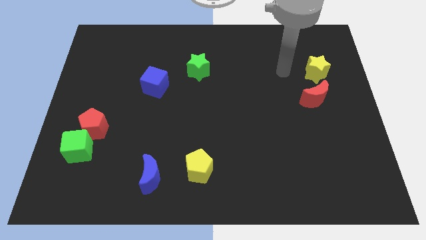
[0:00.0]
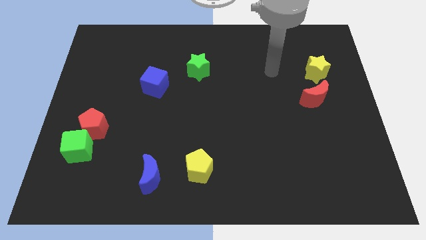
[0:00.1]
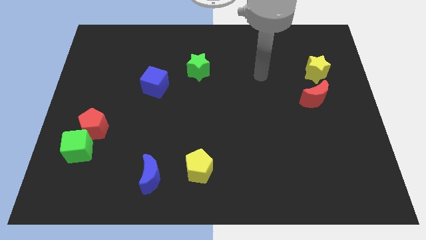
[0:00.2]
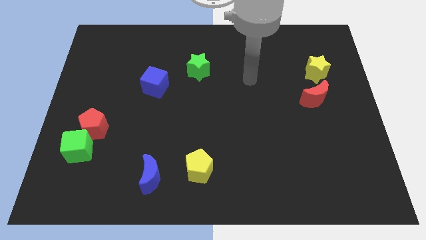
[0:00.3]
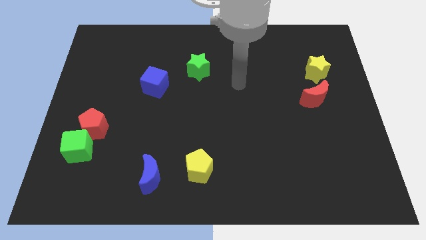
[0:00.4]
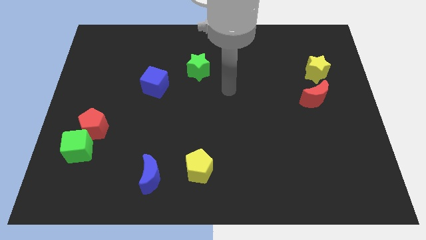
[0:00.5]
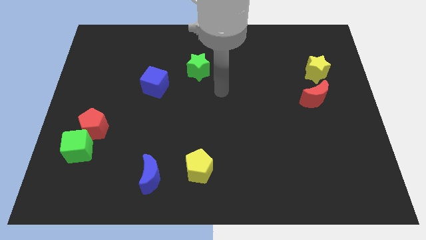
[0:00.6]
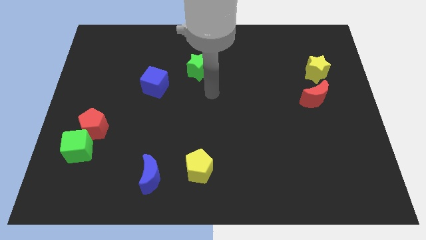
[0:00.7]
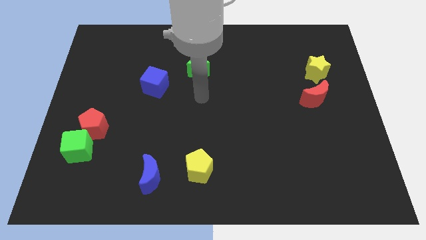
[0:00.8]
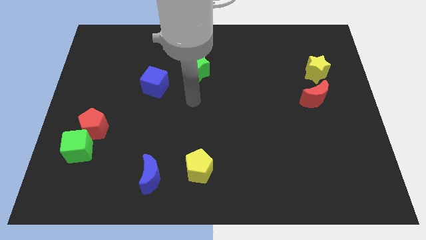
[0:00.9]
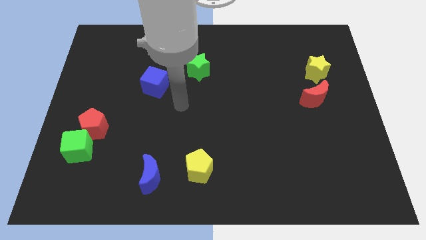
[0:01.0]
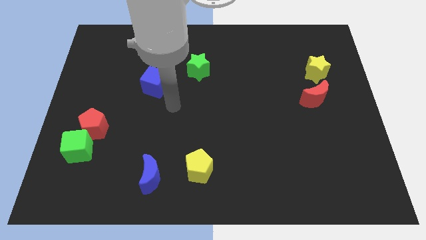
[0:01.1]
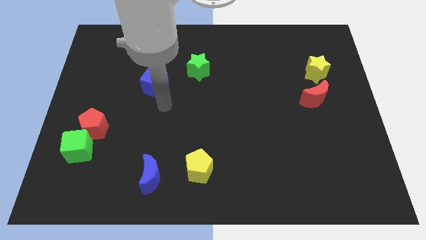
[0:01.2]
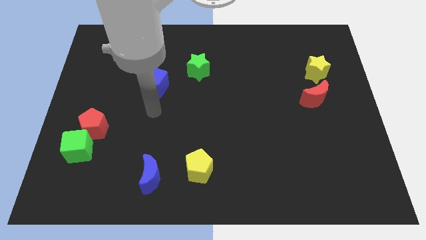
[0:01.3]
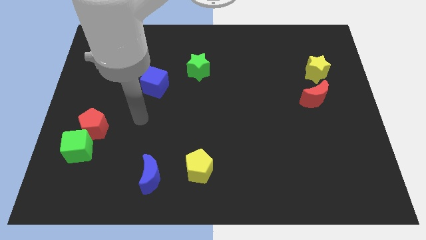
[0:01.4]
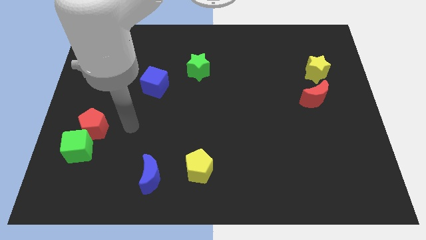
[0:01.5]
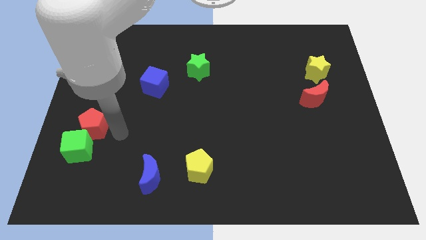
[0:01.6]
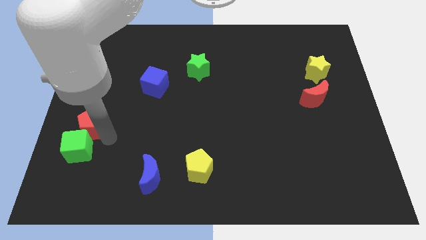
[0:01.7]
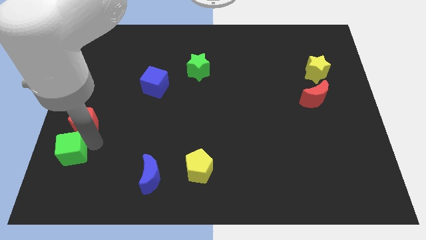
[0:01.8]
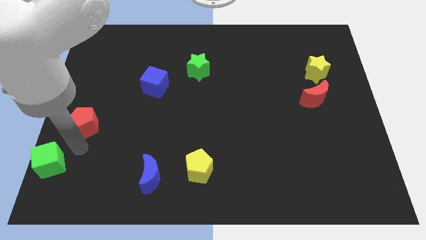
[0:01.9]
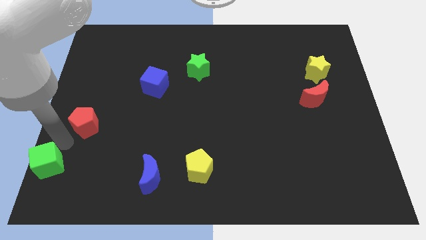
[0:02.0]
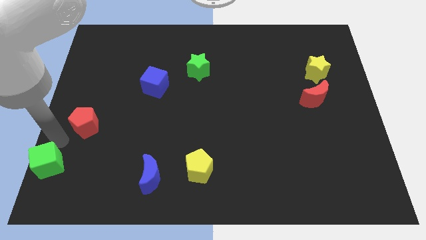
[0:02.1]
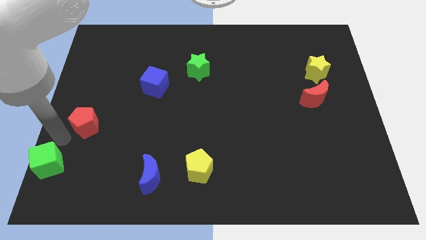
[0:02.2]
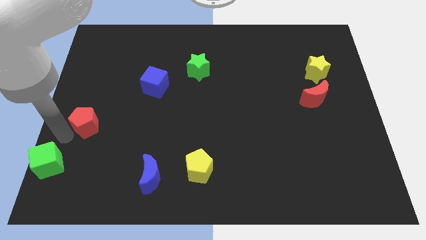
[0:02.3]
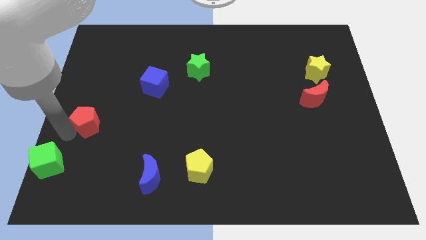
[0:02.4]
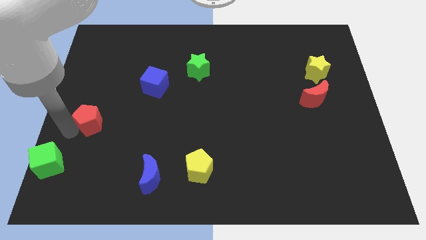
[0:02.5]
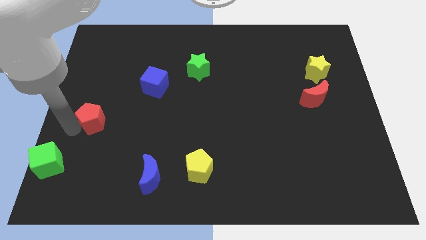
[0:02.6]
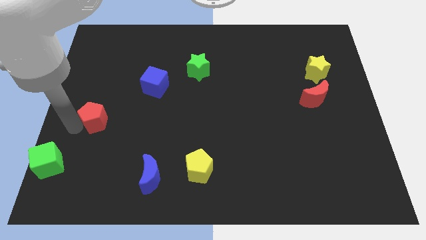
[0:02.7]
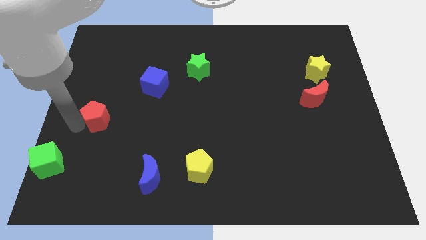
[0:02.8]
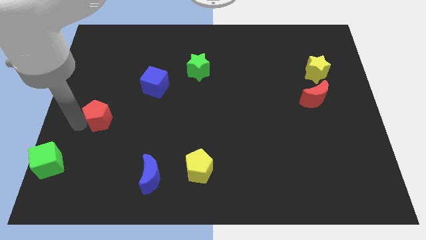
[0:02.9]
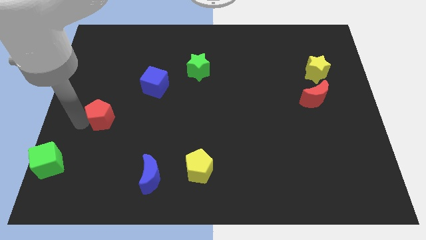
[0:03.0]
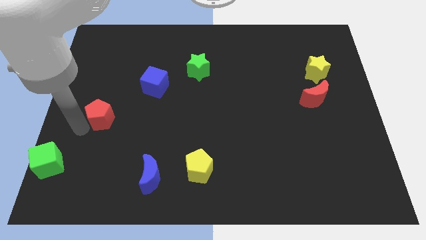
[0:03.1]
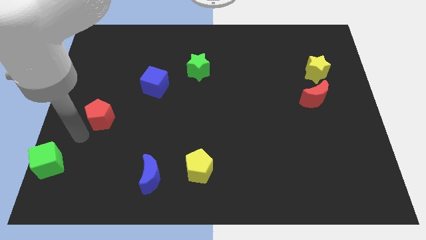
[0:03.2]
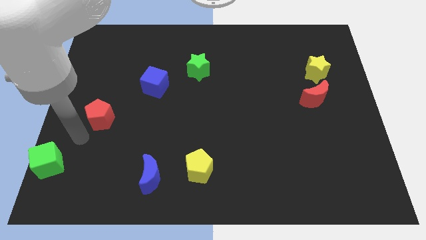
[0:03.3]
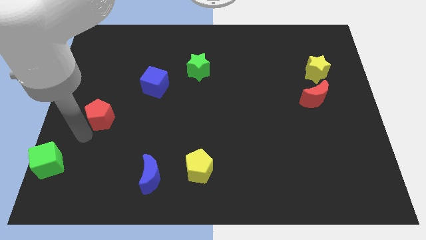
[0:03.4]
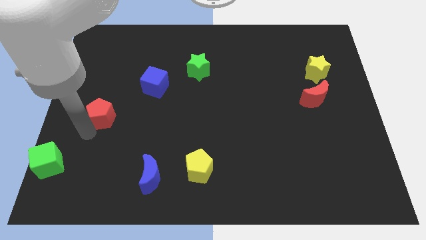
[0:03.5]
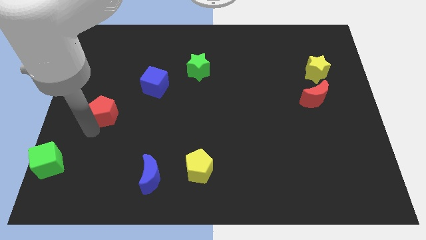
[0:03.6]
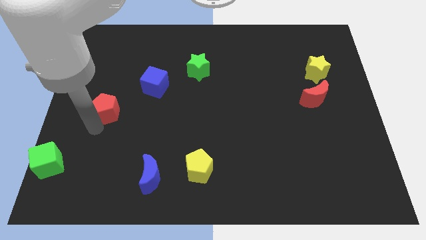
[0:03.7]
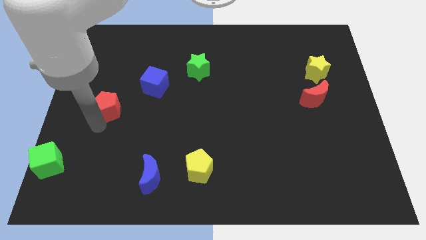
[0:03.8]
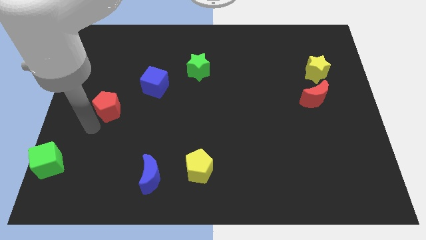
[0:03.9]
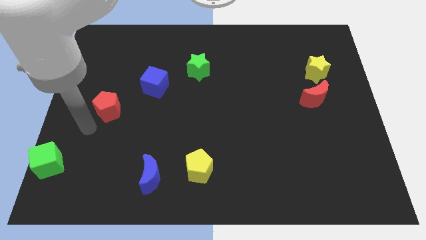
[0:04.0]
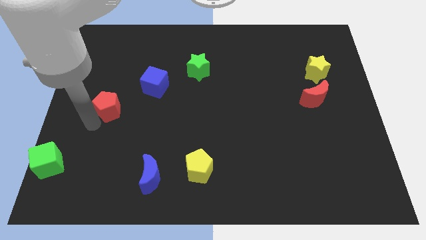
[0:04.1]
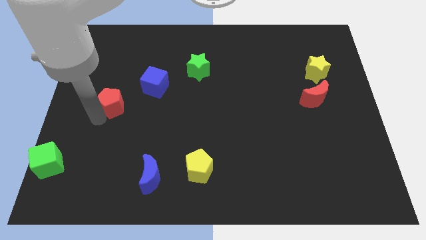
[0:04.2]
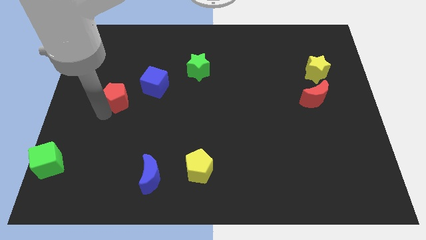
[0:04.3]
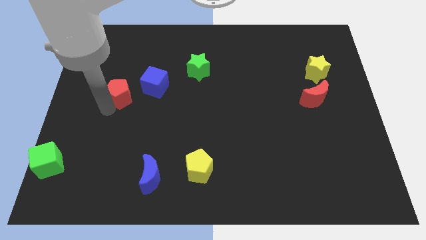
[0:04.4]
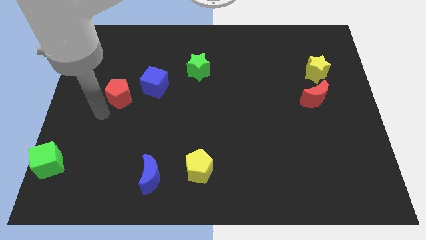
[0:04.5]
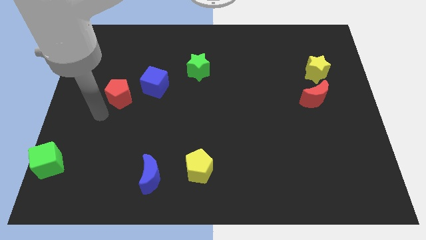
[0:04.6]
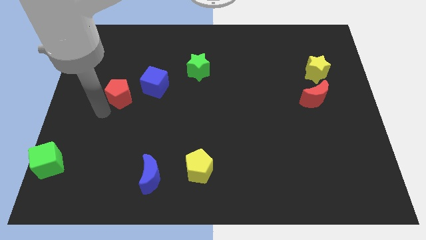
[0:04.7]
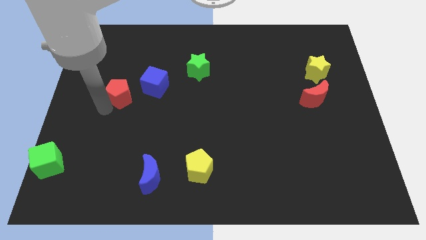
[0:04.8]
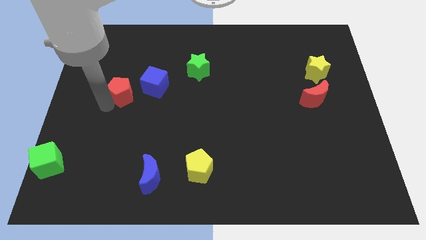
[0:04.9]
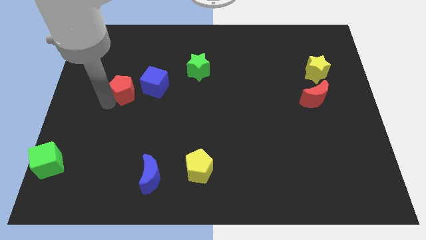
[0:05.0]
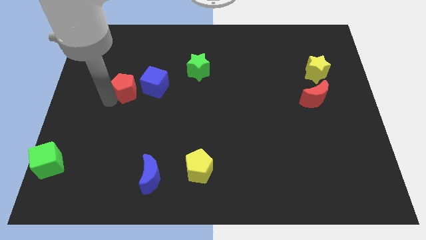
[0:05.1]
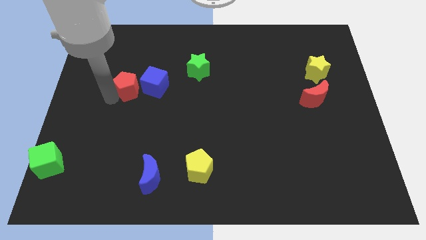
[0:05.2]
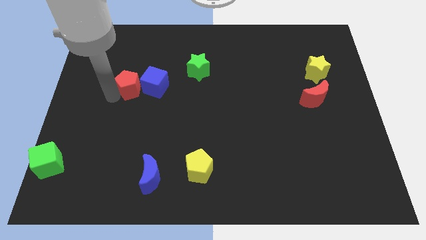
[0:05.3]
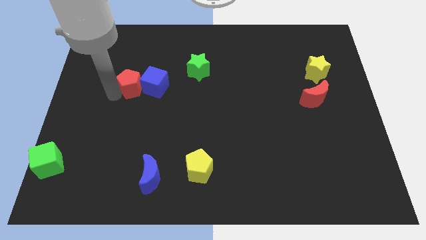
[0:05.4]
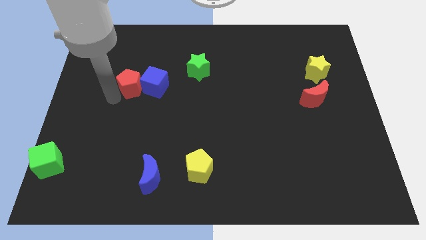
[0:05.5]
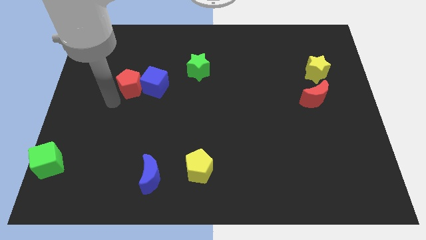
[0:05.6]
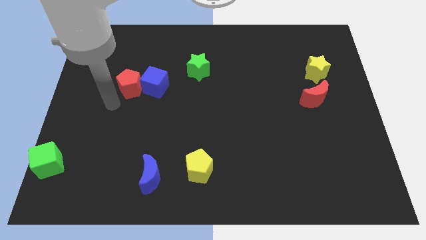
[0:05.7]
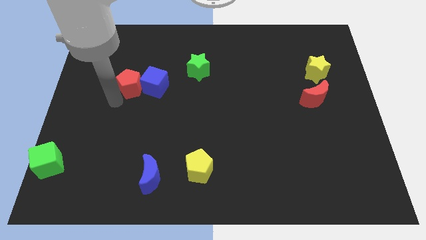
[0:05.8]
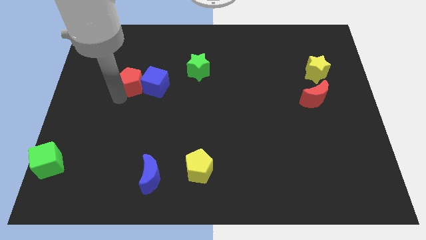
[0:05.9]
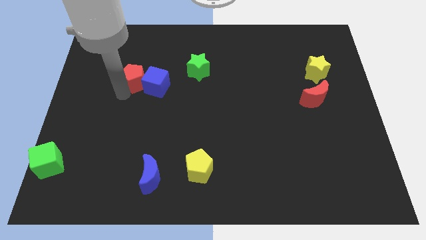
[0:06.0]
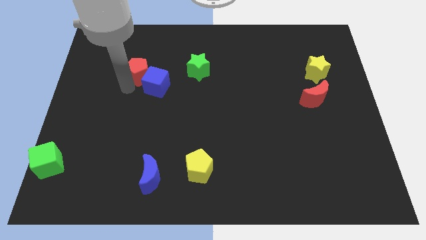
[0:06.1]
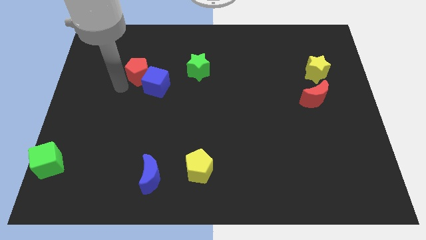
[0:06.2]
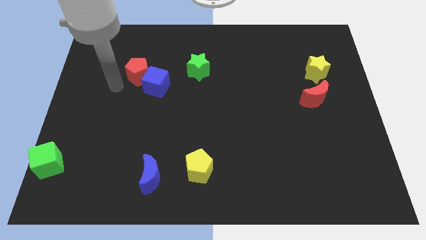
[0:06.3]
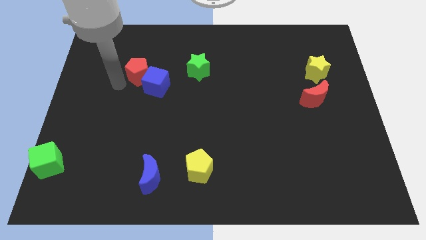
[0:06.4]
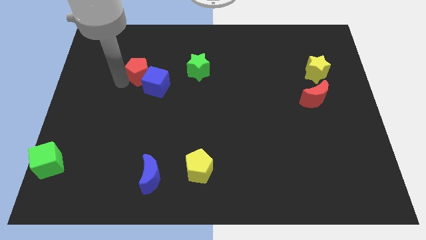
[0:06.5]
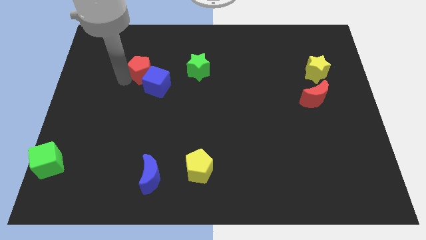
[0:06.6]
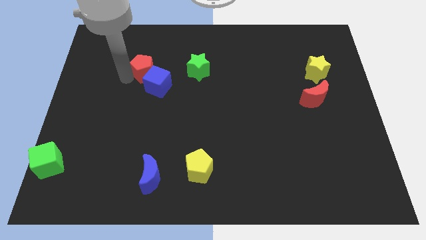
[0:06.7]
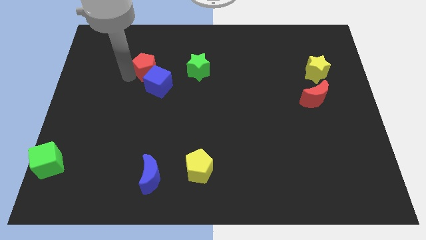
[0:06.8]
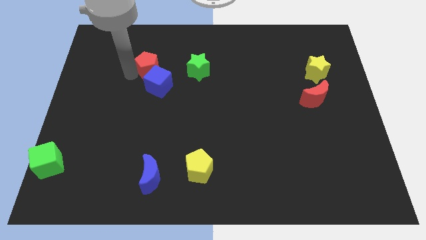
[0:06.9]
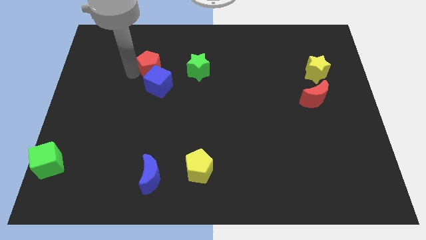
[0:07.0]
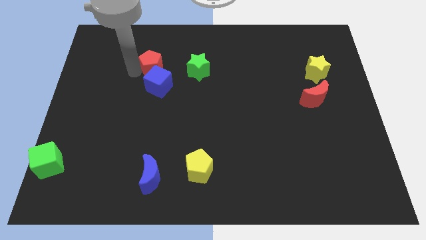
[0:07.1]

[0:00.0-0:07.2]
slide the red pentagon upwards and to the right diagonally

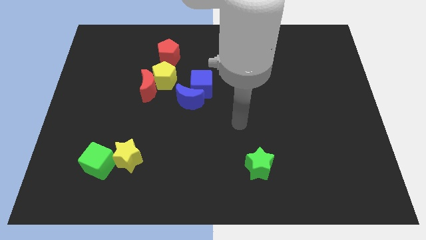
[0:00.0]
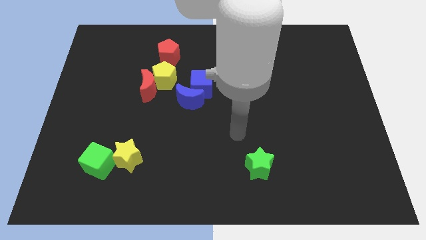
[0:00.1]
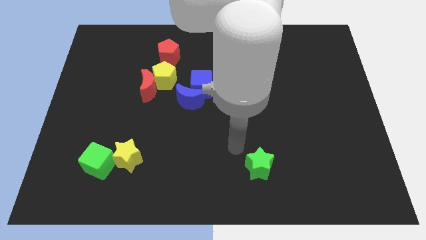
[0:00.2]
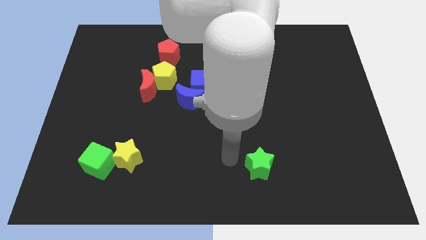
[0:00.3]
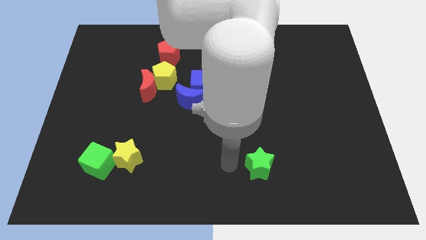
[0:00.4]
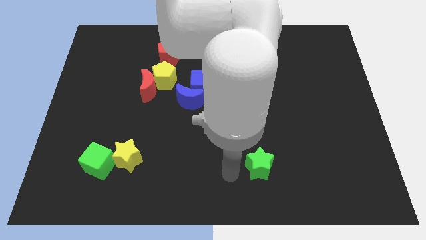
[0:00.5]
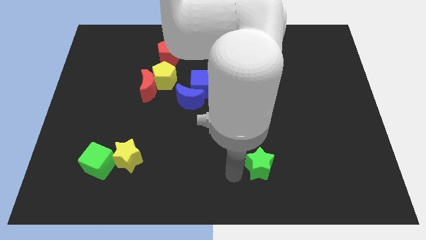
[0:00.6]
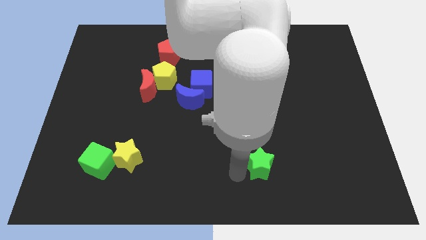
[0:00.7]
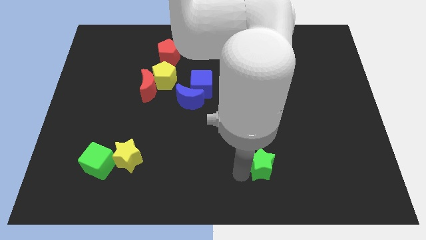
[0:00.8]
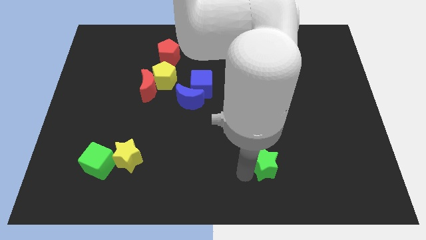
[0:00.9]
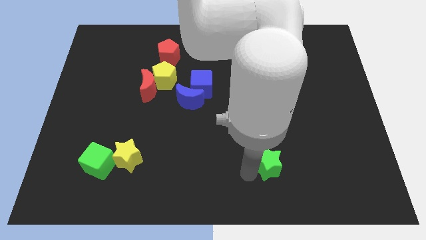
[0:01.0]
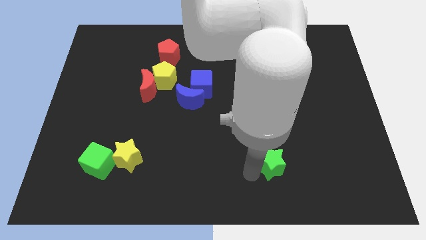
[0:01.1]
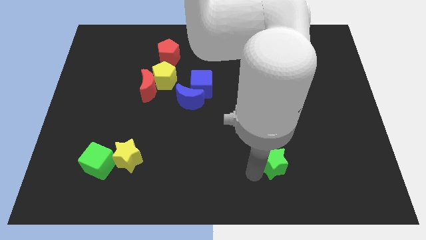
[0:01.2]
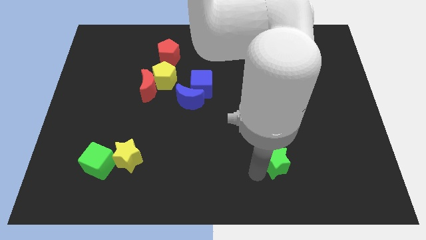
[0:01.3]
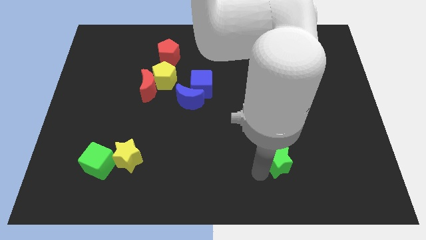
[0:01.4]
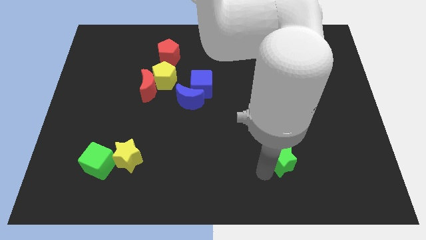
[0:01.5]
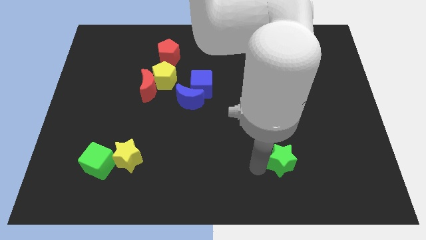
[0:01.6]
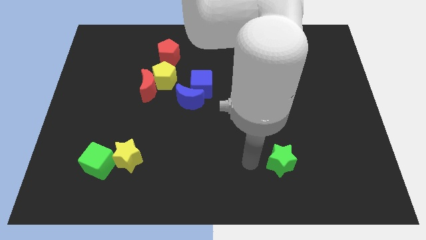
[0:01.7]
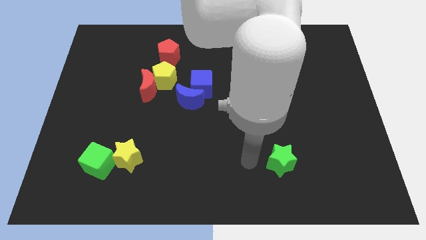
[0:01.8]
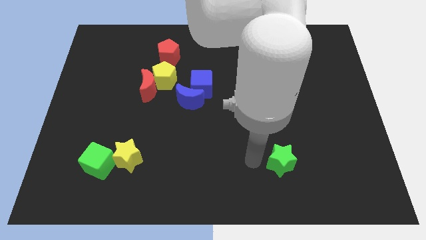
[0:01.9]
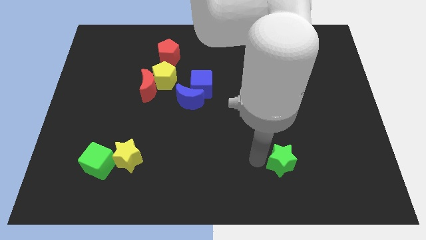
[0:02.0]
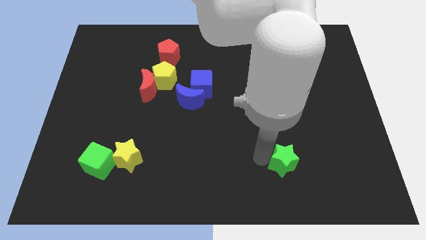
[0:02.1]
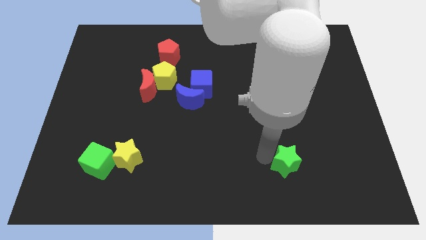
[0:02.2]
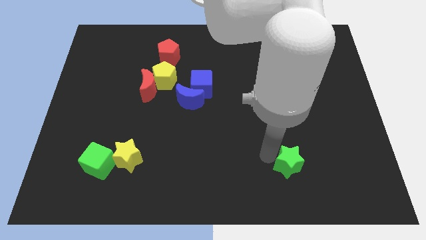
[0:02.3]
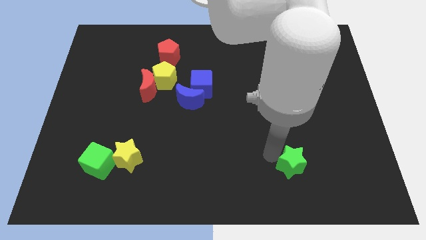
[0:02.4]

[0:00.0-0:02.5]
slightly slide the green star to the right
